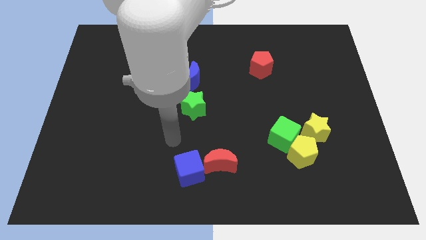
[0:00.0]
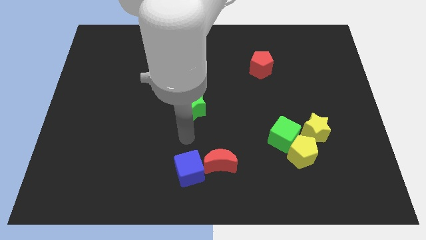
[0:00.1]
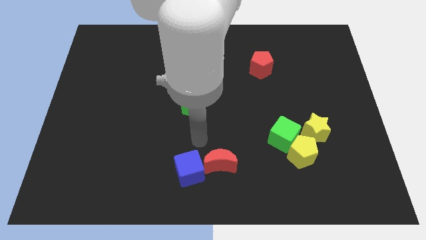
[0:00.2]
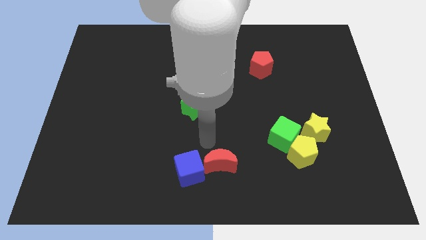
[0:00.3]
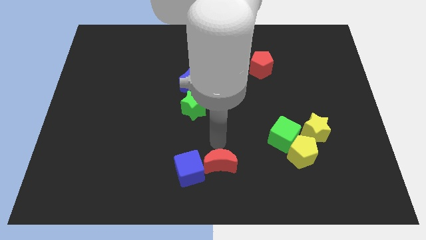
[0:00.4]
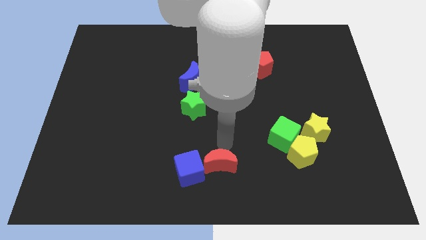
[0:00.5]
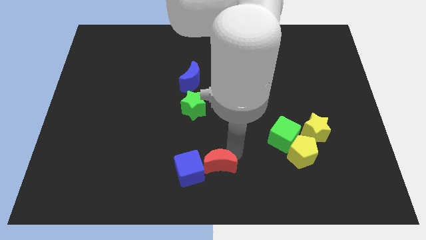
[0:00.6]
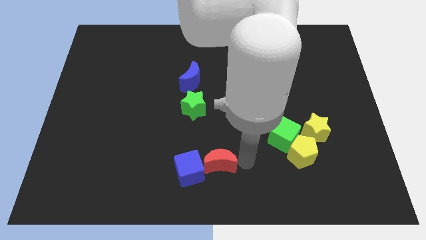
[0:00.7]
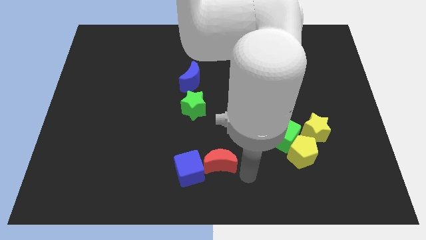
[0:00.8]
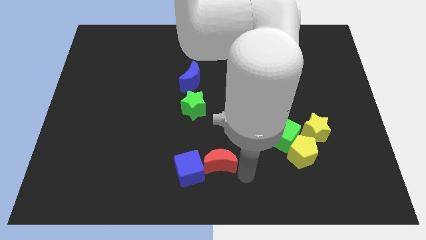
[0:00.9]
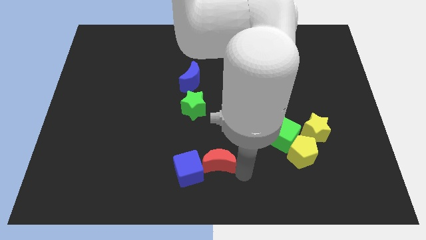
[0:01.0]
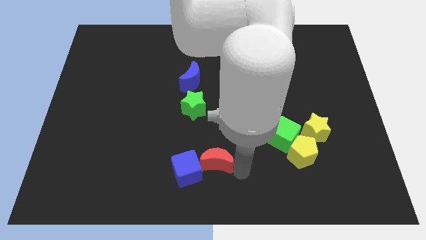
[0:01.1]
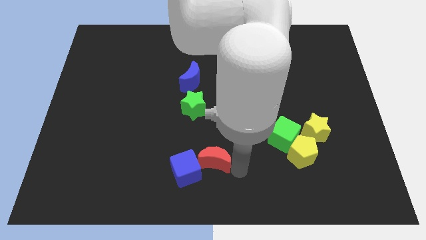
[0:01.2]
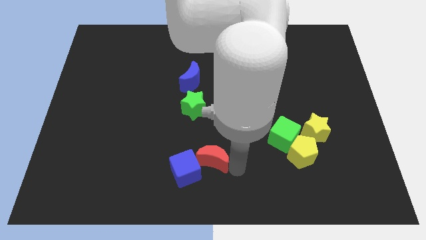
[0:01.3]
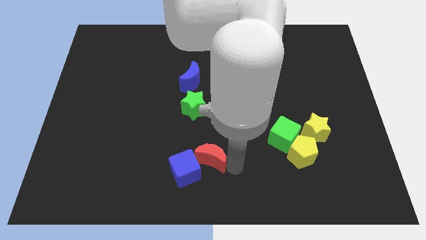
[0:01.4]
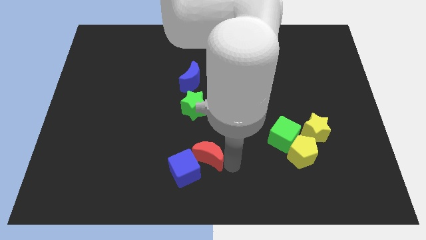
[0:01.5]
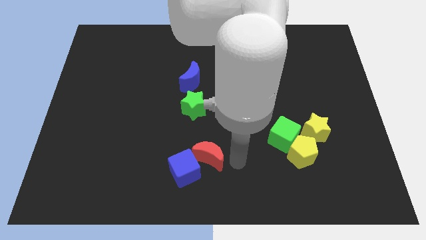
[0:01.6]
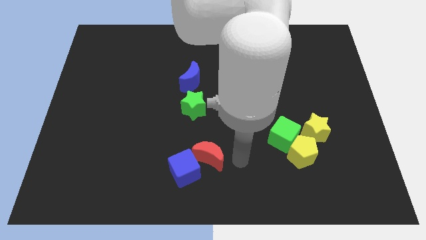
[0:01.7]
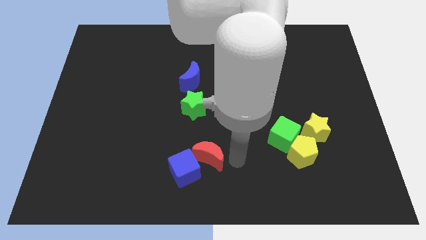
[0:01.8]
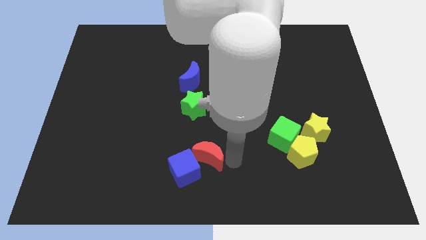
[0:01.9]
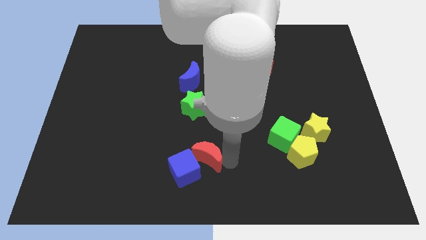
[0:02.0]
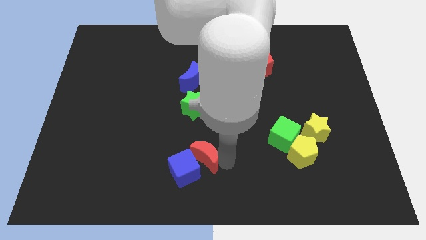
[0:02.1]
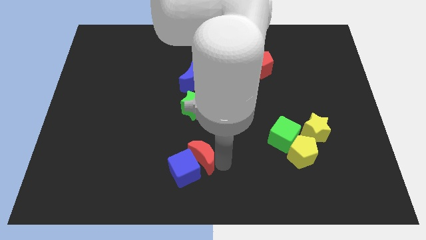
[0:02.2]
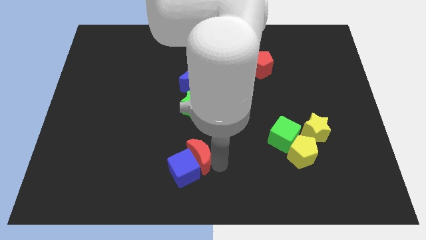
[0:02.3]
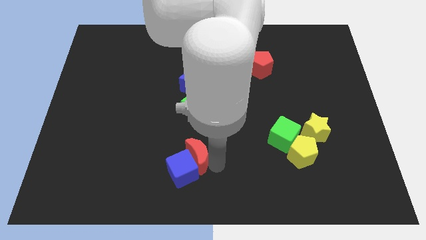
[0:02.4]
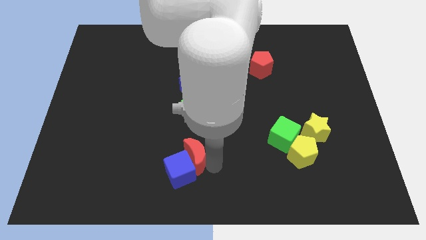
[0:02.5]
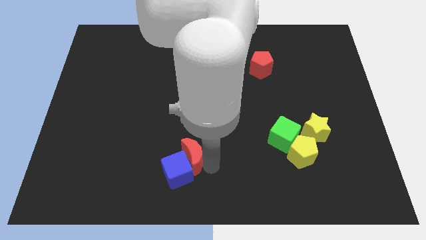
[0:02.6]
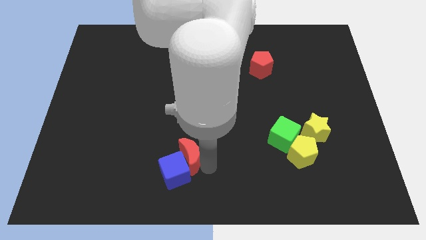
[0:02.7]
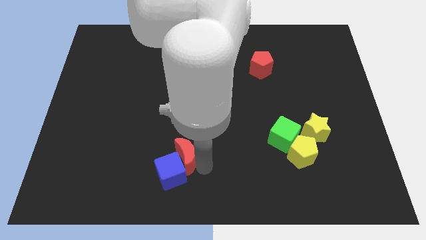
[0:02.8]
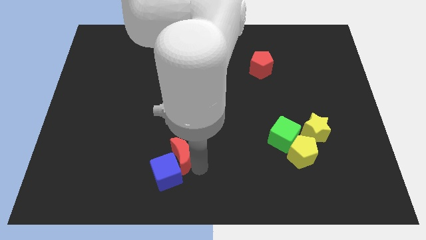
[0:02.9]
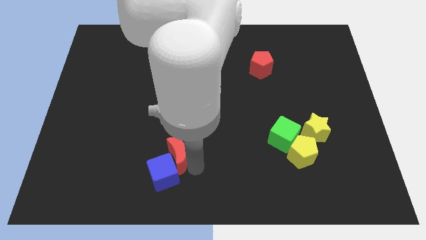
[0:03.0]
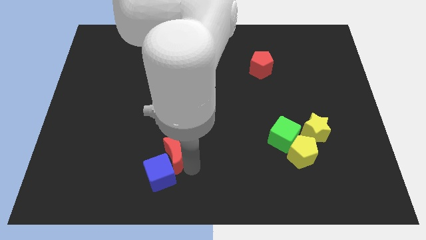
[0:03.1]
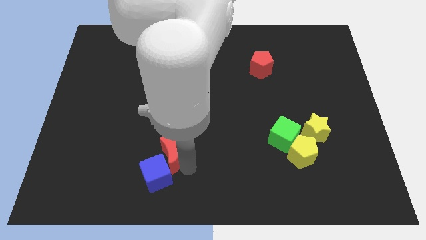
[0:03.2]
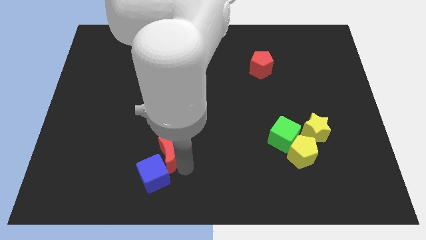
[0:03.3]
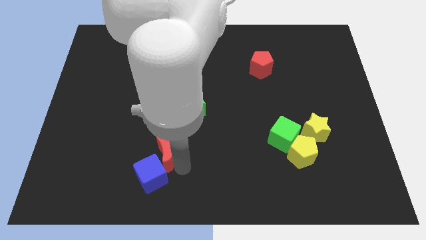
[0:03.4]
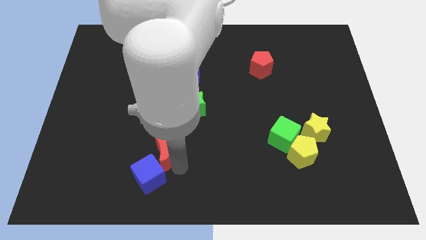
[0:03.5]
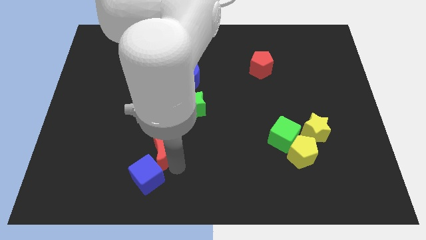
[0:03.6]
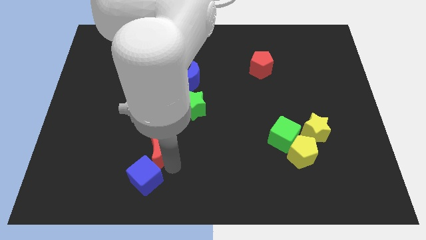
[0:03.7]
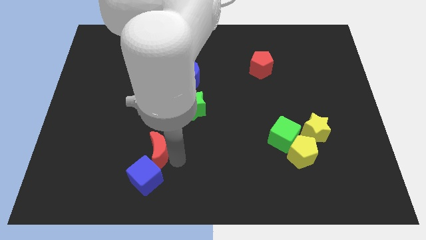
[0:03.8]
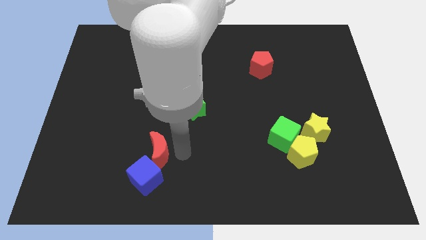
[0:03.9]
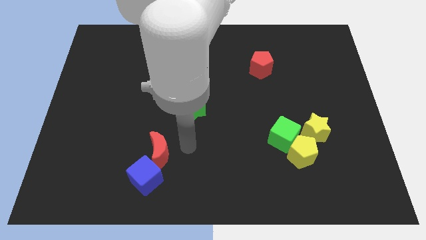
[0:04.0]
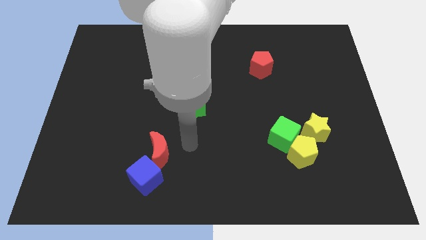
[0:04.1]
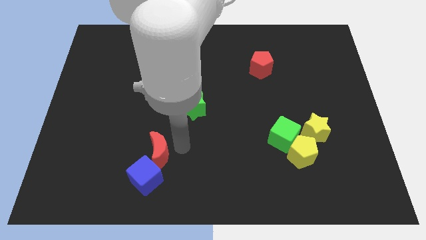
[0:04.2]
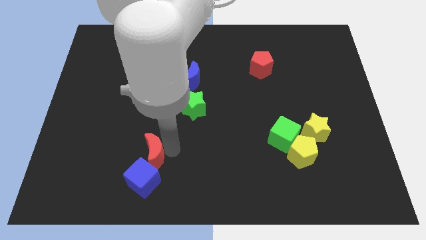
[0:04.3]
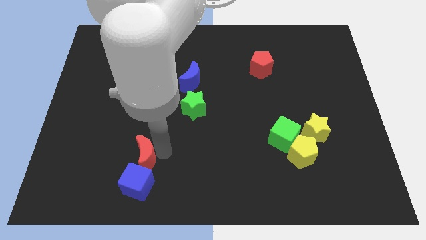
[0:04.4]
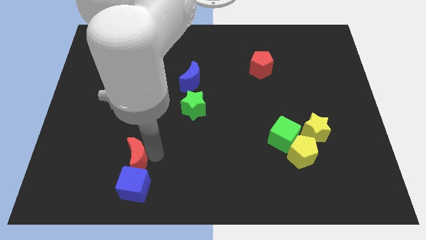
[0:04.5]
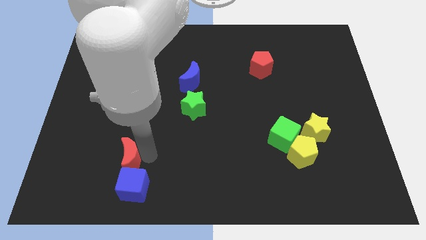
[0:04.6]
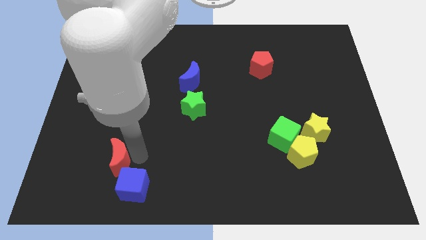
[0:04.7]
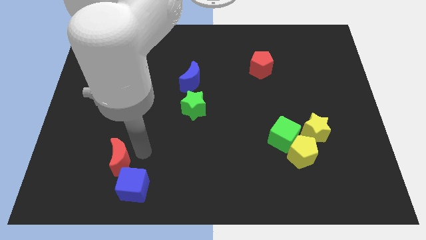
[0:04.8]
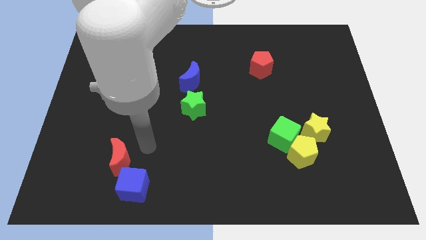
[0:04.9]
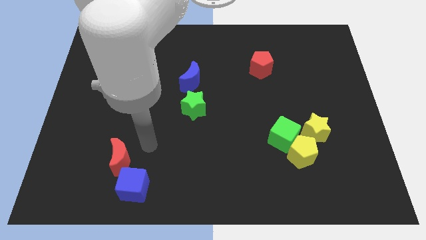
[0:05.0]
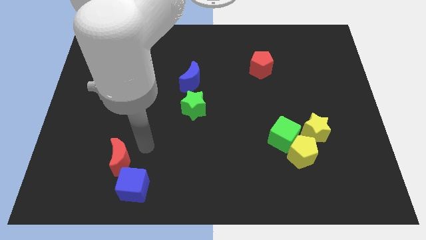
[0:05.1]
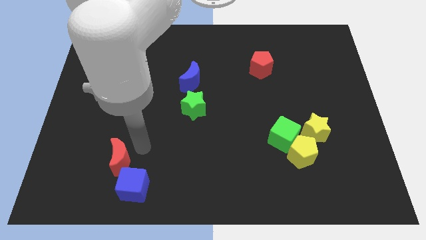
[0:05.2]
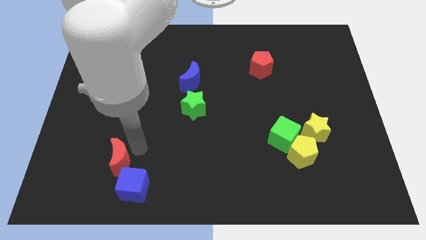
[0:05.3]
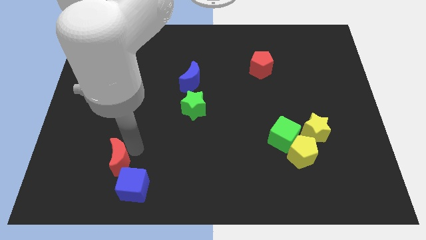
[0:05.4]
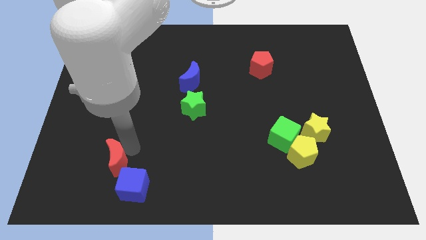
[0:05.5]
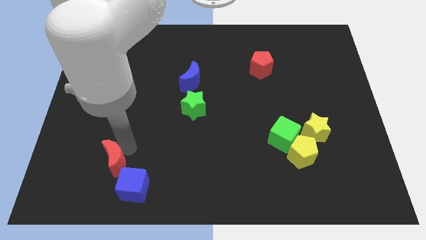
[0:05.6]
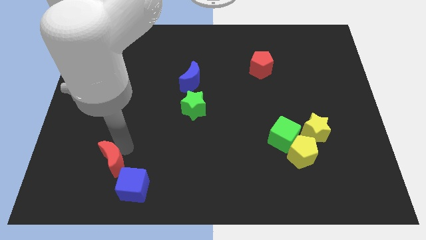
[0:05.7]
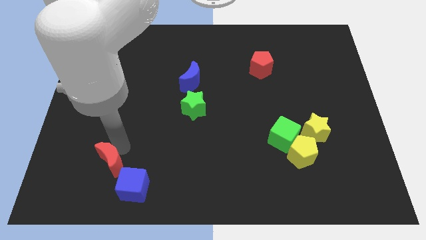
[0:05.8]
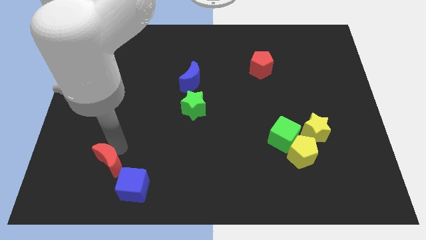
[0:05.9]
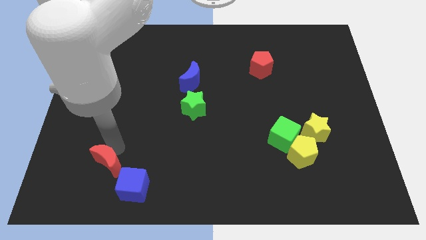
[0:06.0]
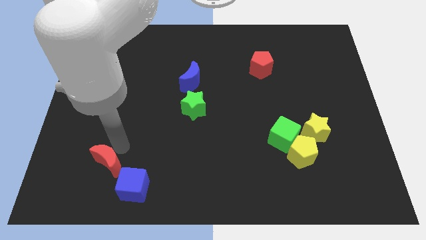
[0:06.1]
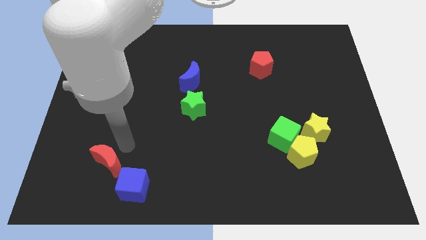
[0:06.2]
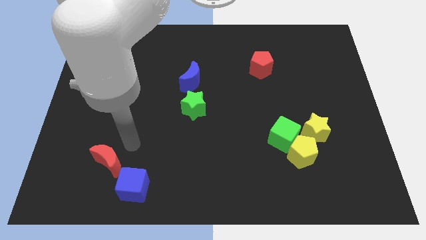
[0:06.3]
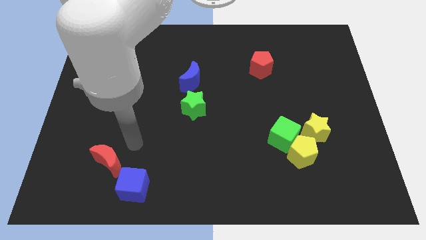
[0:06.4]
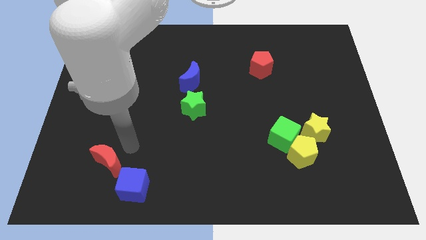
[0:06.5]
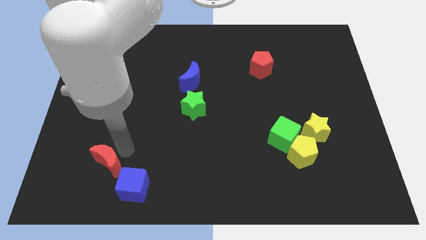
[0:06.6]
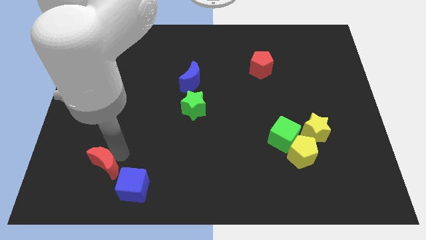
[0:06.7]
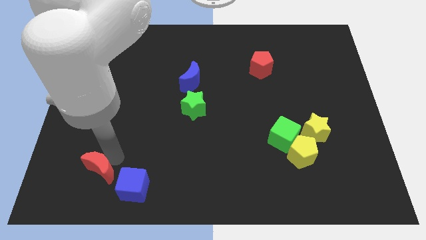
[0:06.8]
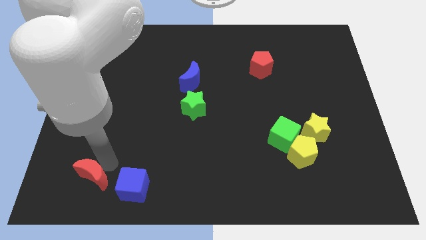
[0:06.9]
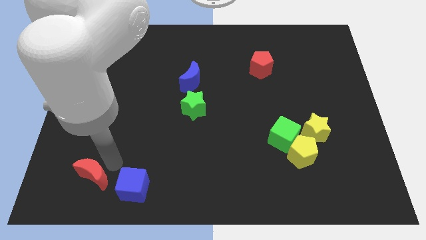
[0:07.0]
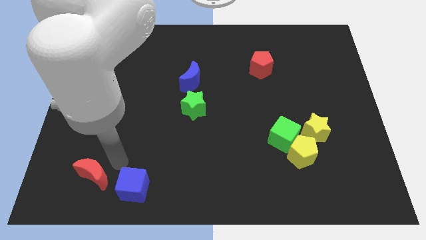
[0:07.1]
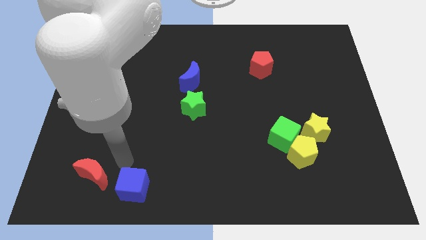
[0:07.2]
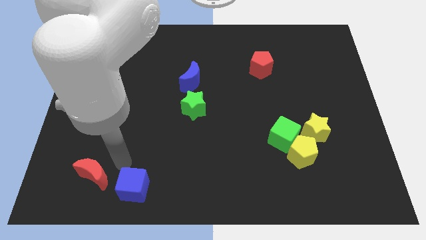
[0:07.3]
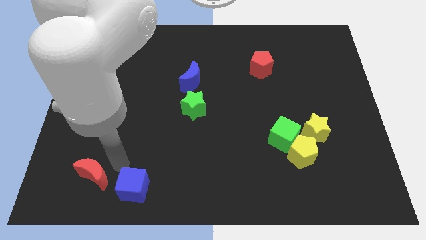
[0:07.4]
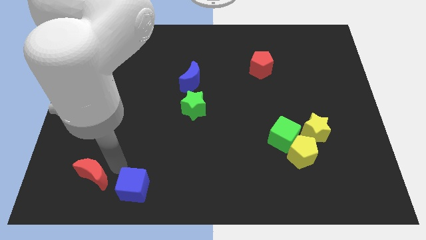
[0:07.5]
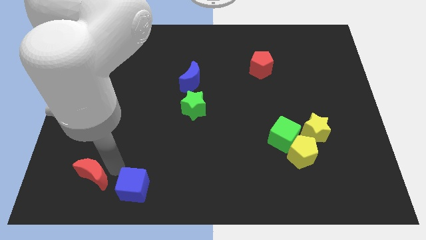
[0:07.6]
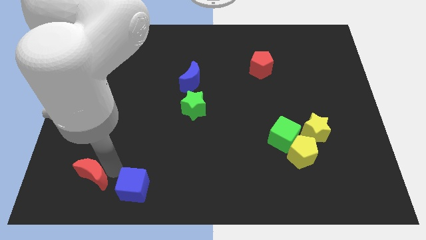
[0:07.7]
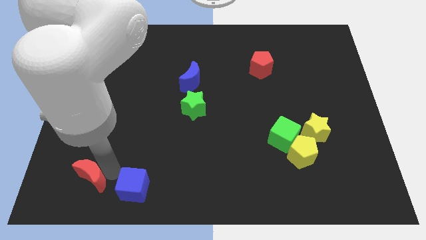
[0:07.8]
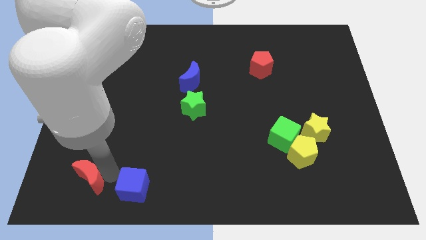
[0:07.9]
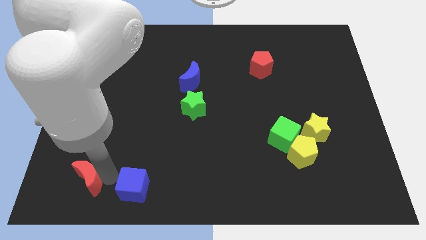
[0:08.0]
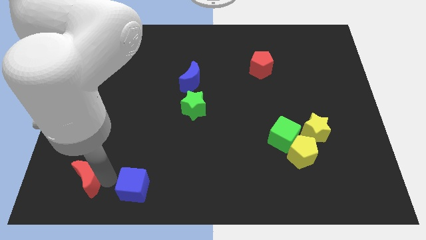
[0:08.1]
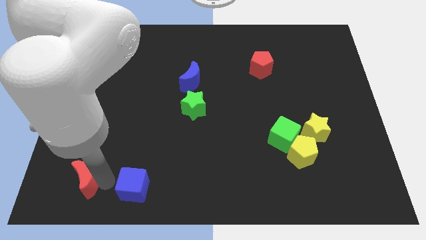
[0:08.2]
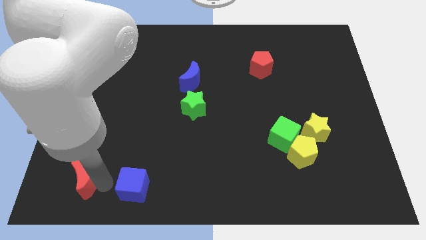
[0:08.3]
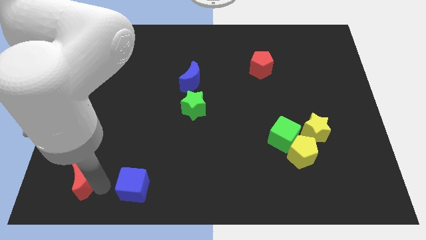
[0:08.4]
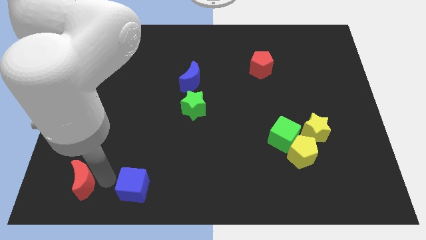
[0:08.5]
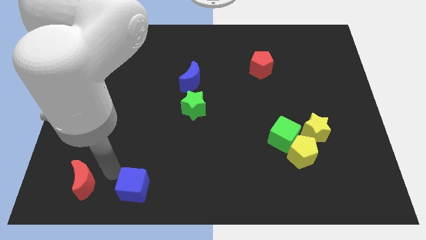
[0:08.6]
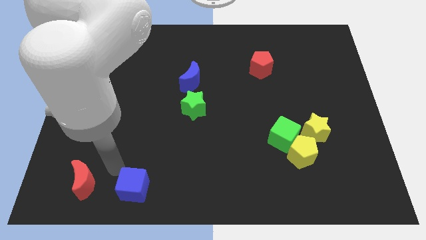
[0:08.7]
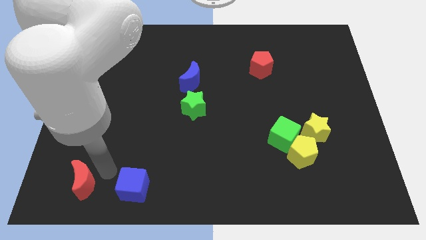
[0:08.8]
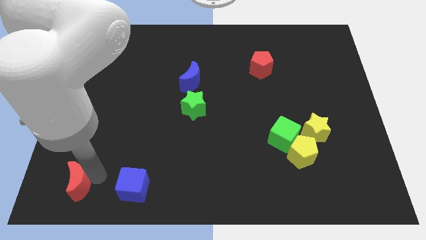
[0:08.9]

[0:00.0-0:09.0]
put the red moon to the bottom left
